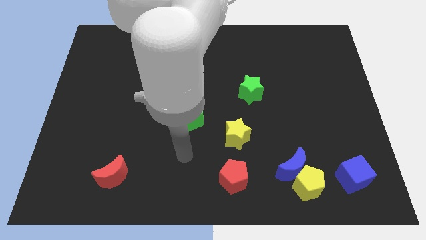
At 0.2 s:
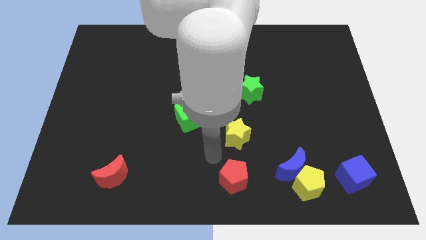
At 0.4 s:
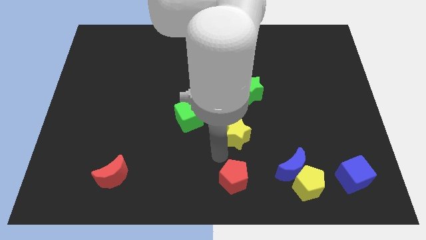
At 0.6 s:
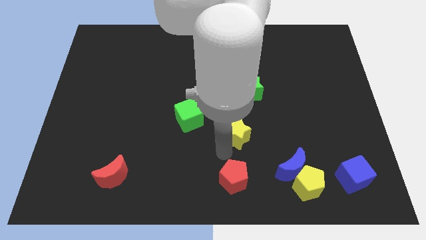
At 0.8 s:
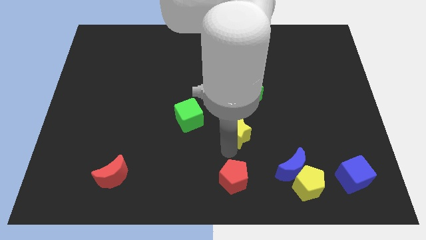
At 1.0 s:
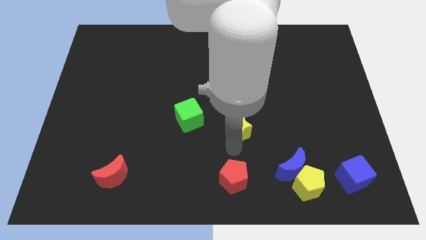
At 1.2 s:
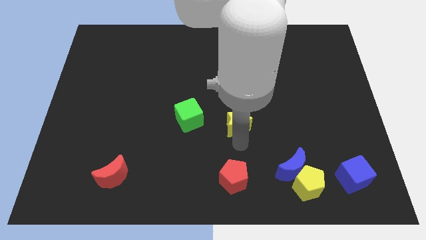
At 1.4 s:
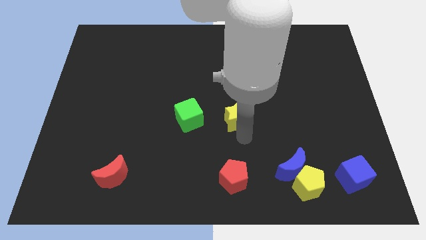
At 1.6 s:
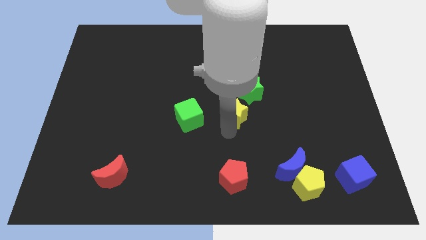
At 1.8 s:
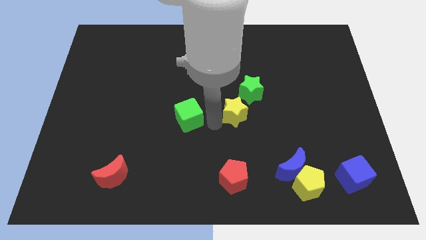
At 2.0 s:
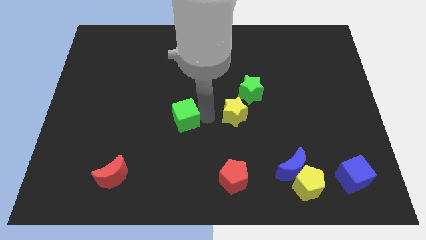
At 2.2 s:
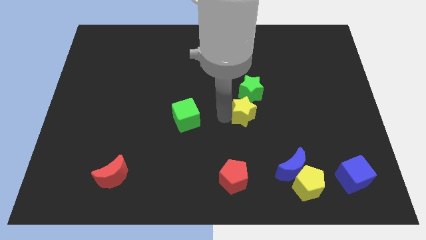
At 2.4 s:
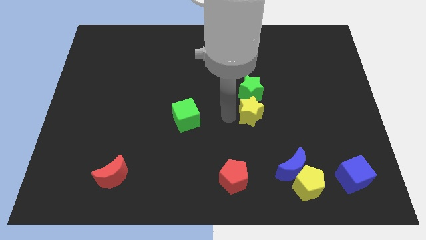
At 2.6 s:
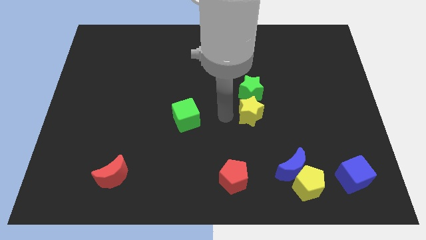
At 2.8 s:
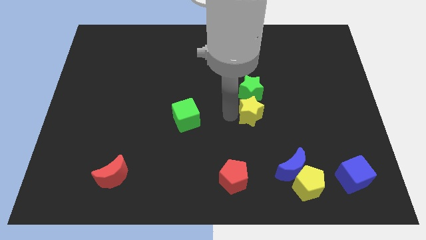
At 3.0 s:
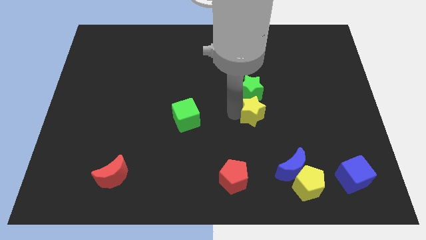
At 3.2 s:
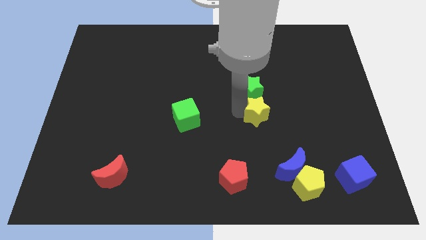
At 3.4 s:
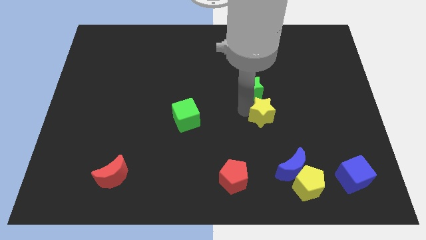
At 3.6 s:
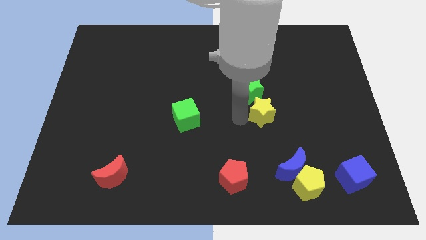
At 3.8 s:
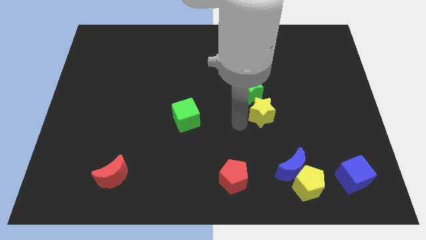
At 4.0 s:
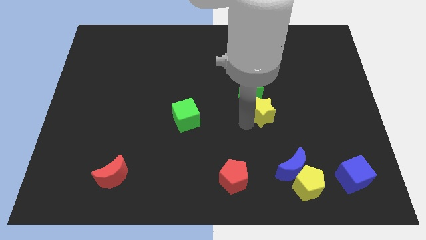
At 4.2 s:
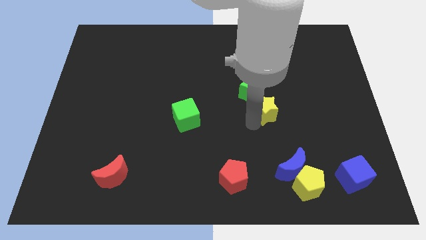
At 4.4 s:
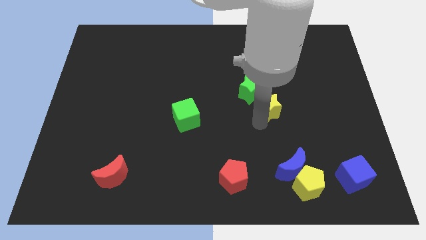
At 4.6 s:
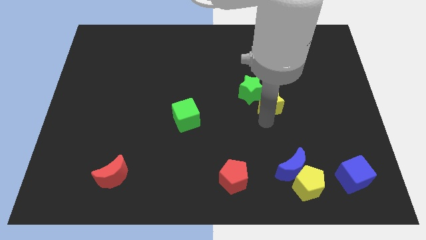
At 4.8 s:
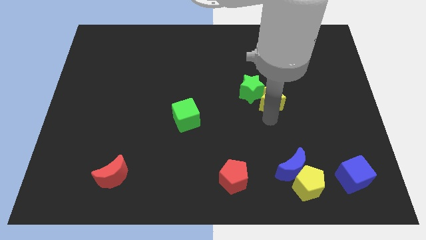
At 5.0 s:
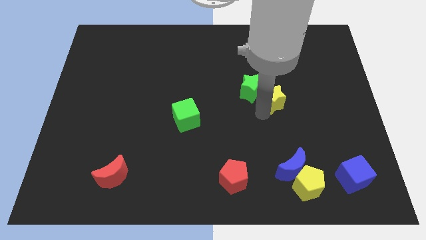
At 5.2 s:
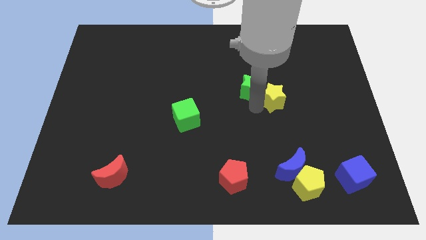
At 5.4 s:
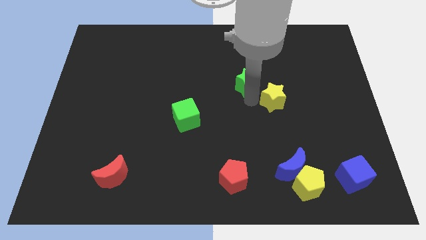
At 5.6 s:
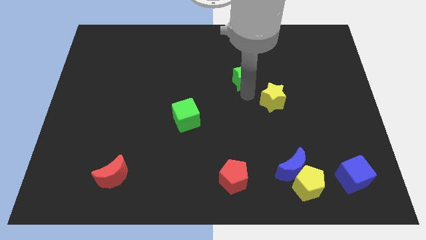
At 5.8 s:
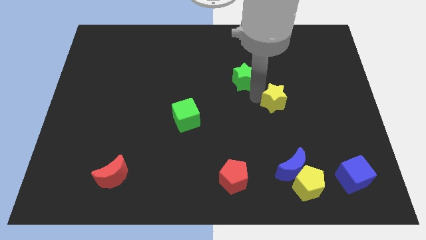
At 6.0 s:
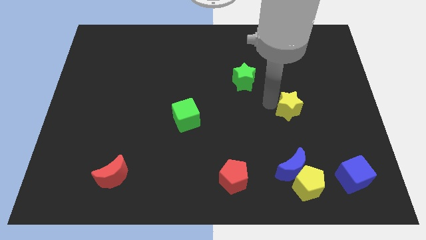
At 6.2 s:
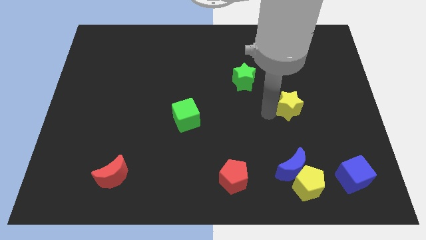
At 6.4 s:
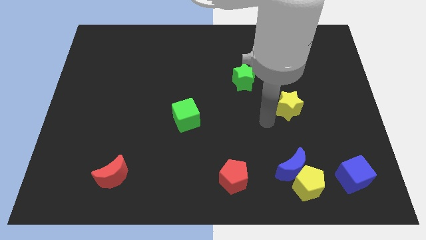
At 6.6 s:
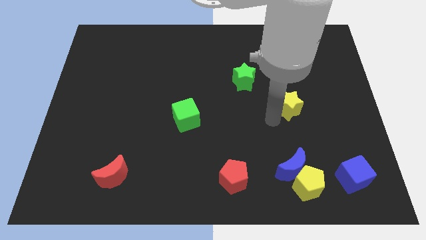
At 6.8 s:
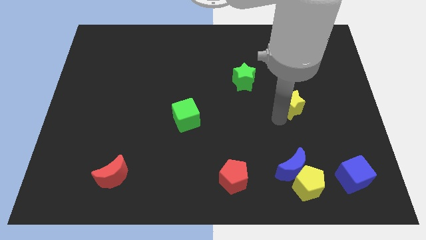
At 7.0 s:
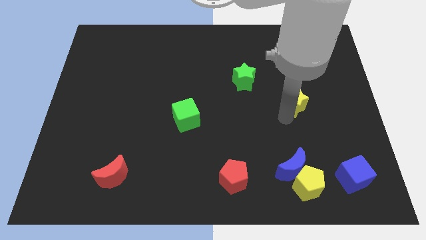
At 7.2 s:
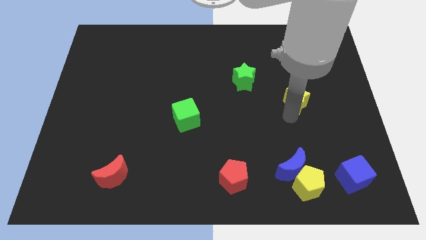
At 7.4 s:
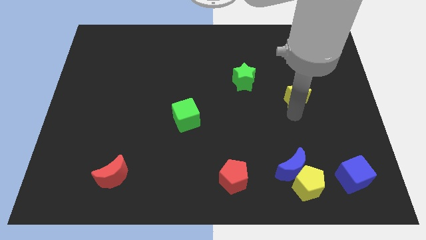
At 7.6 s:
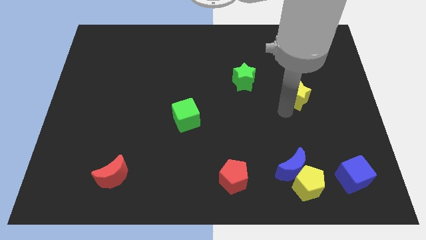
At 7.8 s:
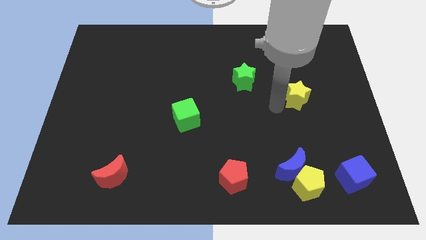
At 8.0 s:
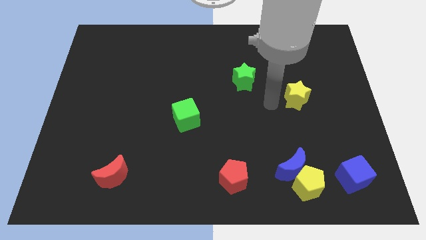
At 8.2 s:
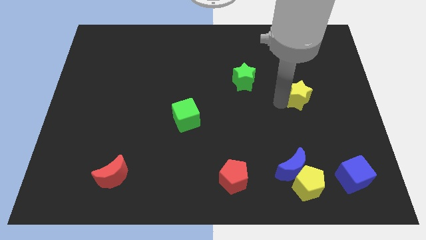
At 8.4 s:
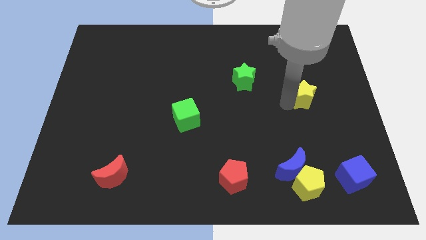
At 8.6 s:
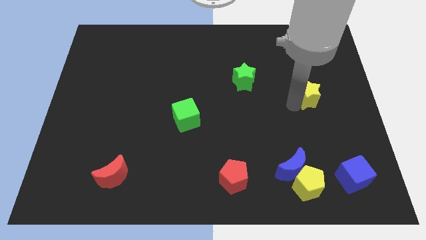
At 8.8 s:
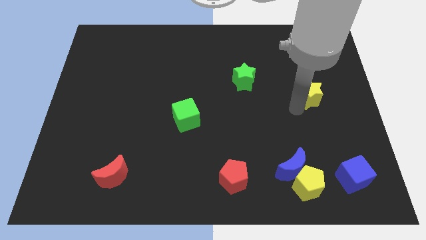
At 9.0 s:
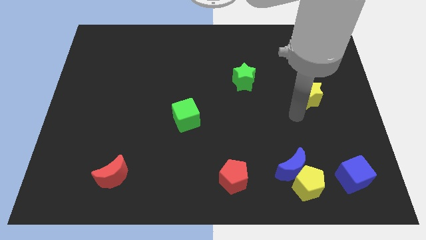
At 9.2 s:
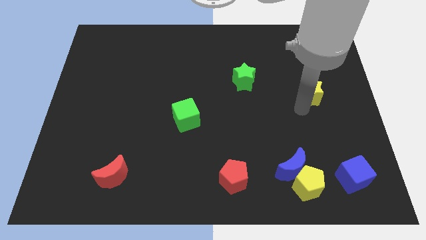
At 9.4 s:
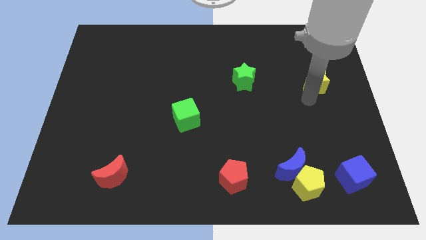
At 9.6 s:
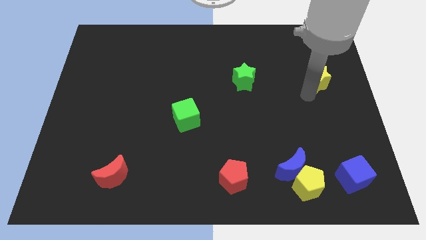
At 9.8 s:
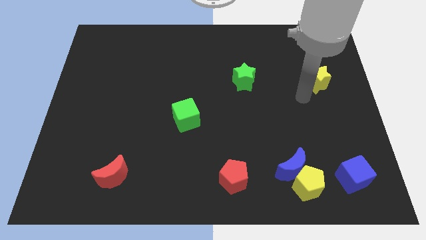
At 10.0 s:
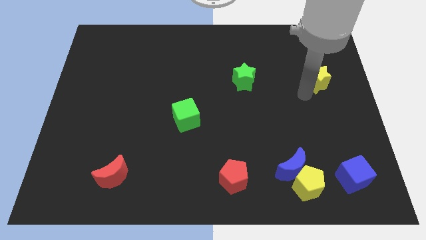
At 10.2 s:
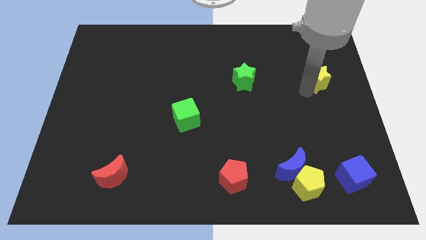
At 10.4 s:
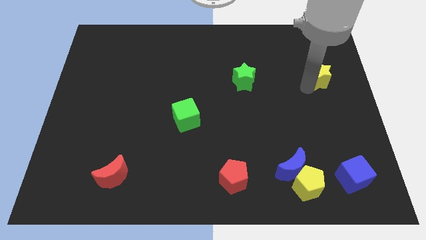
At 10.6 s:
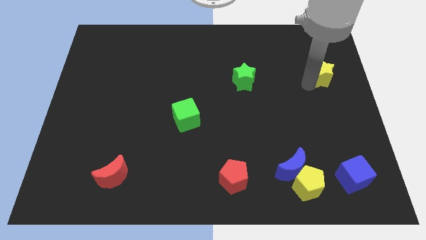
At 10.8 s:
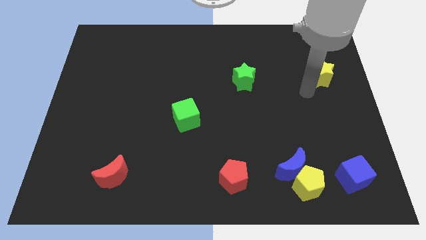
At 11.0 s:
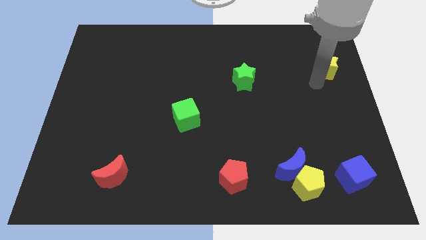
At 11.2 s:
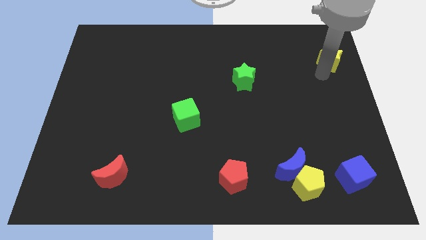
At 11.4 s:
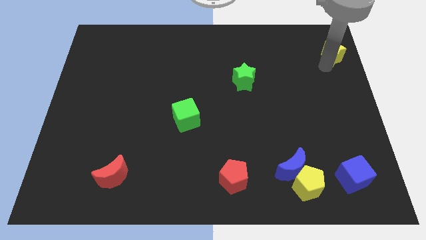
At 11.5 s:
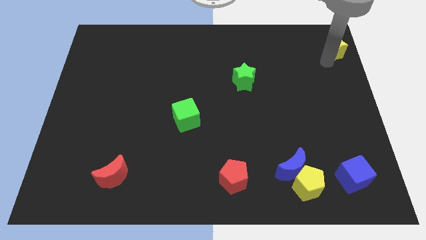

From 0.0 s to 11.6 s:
slide the yellow star to the upper right corner
